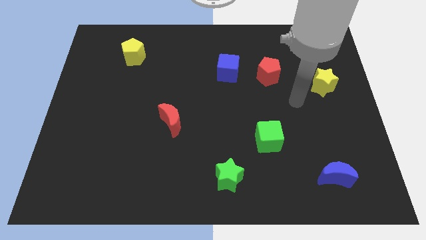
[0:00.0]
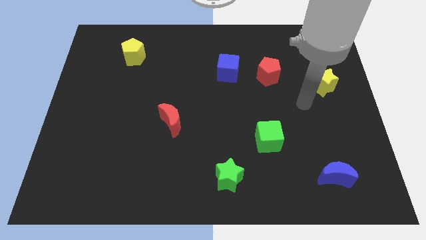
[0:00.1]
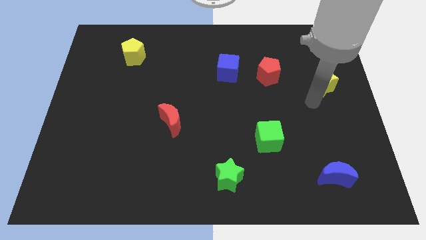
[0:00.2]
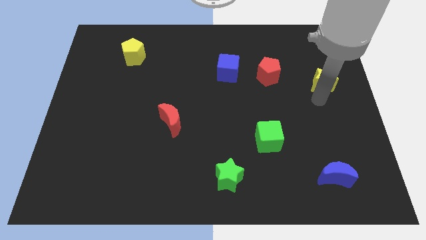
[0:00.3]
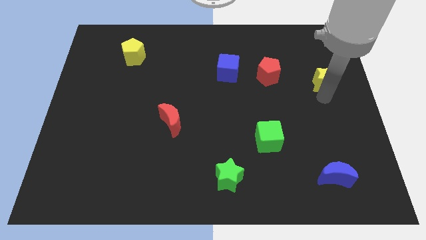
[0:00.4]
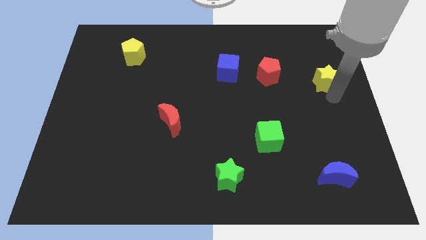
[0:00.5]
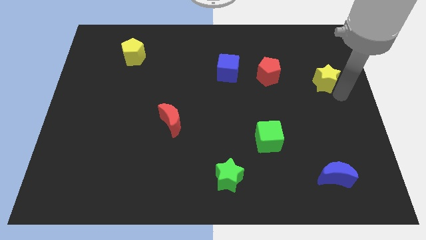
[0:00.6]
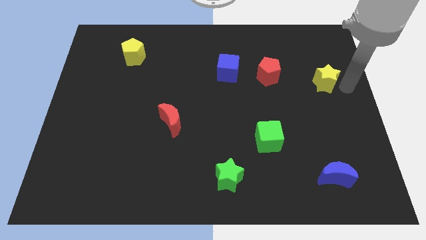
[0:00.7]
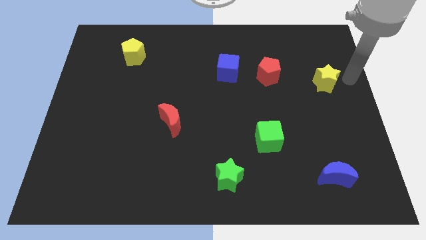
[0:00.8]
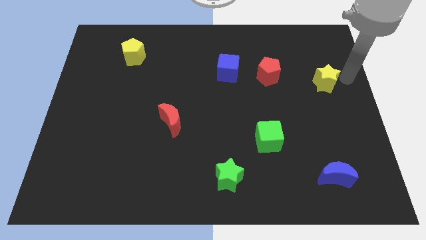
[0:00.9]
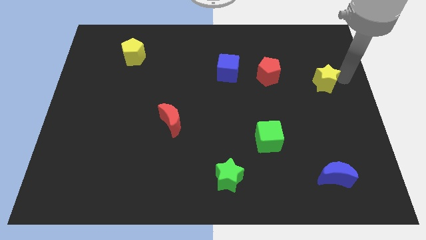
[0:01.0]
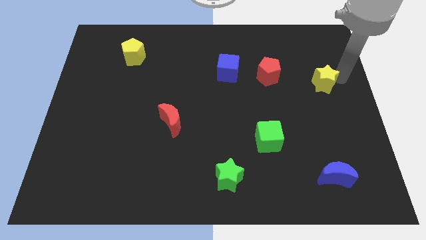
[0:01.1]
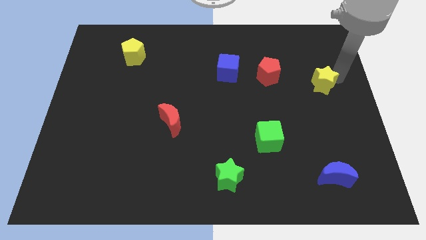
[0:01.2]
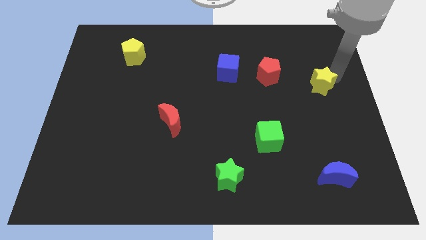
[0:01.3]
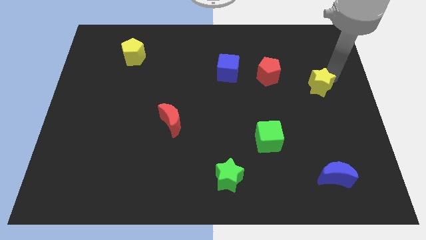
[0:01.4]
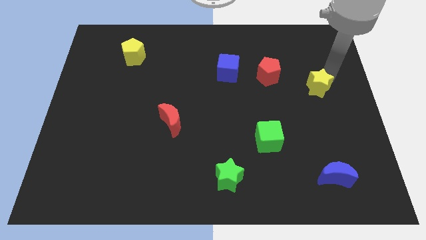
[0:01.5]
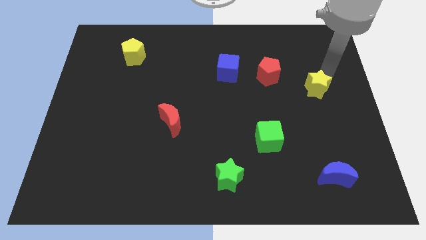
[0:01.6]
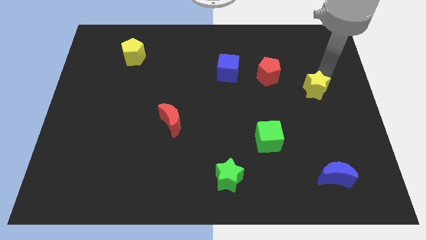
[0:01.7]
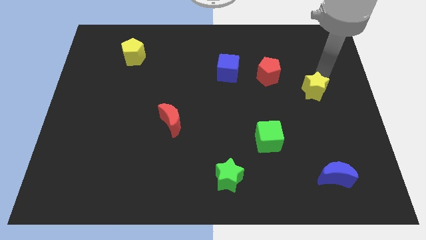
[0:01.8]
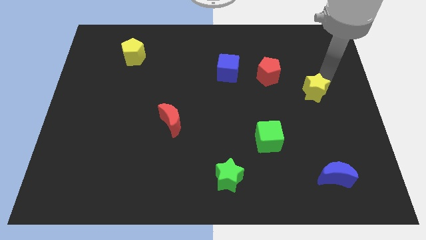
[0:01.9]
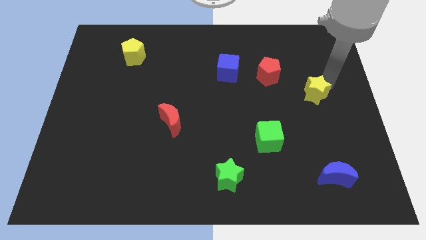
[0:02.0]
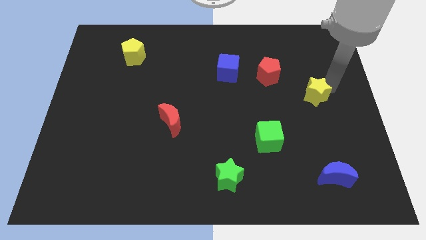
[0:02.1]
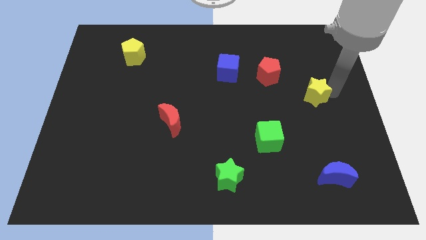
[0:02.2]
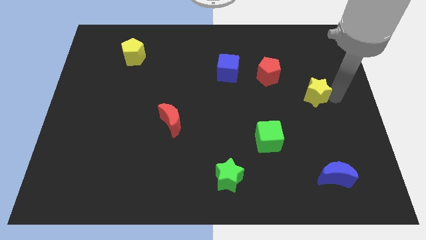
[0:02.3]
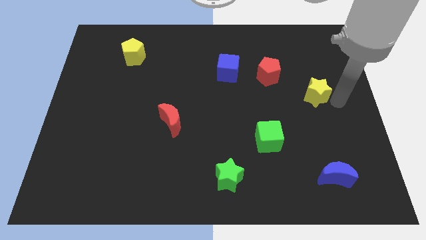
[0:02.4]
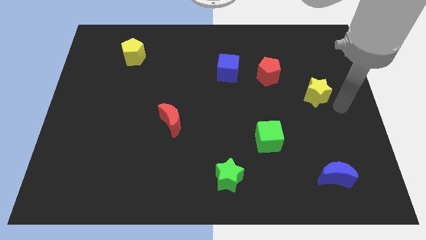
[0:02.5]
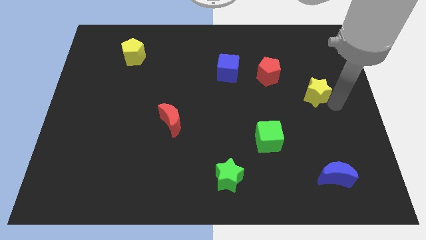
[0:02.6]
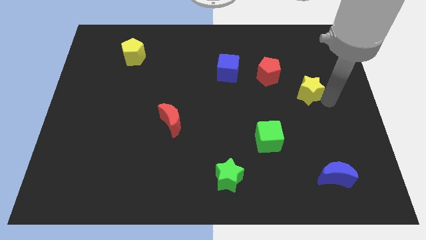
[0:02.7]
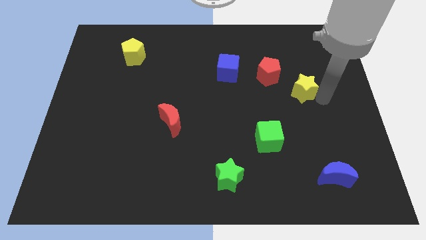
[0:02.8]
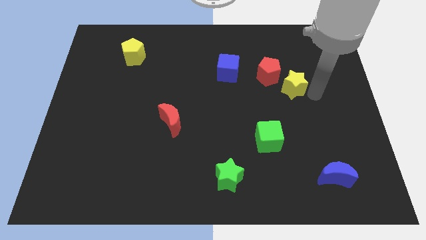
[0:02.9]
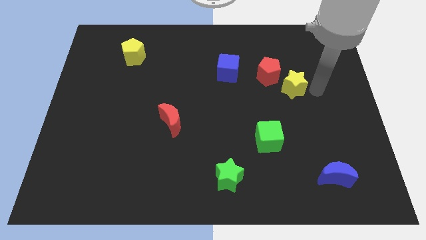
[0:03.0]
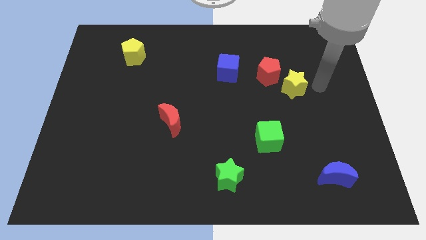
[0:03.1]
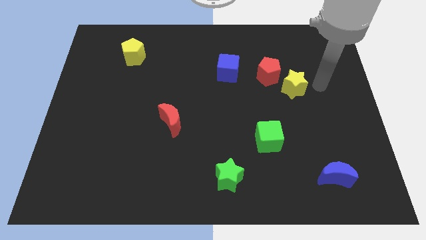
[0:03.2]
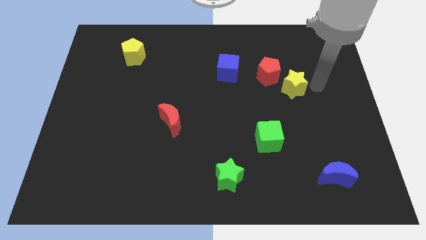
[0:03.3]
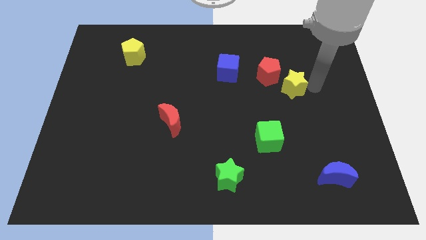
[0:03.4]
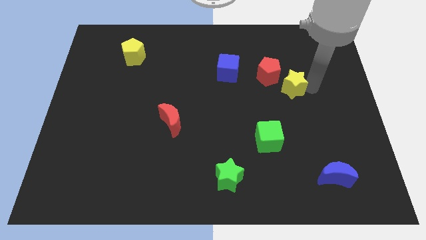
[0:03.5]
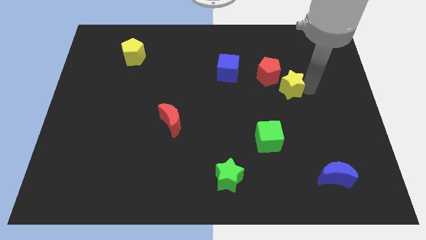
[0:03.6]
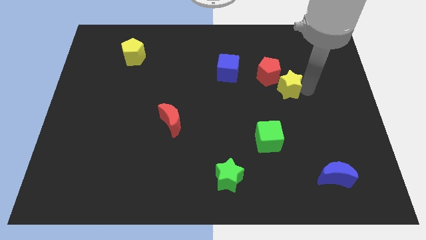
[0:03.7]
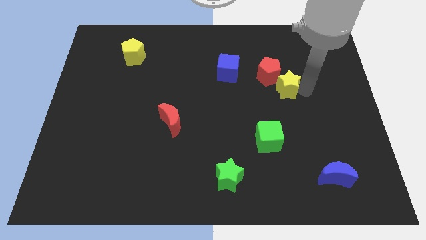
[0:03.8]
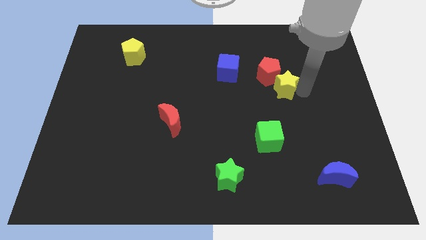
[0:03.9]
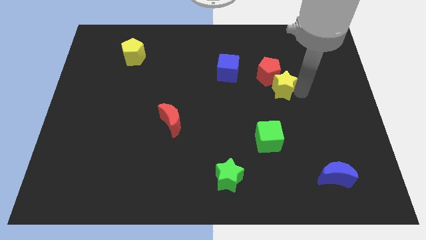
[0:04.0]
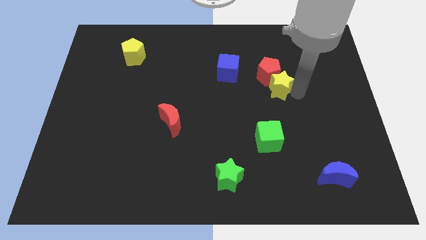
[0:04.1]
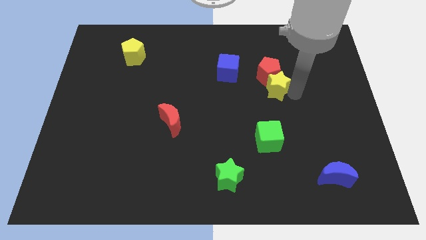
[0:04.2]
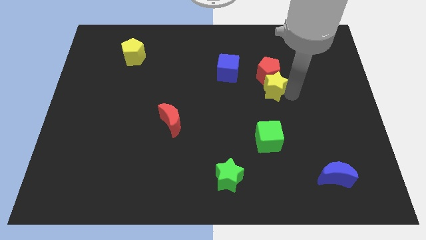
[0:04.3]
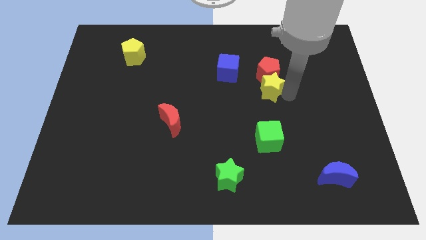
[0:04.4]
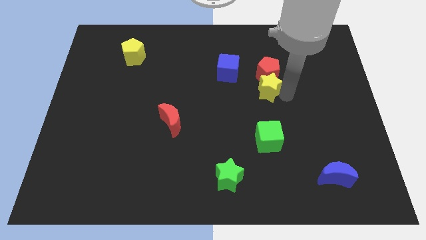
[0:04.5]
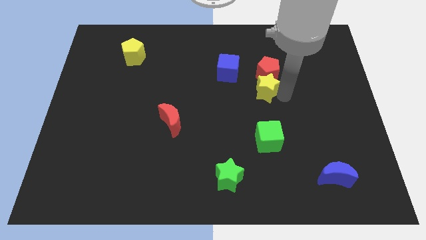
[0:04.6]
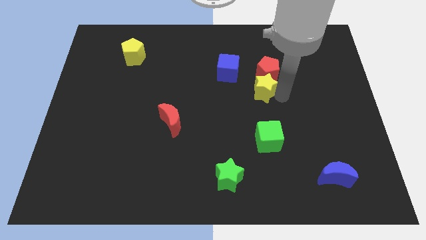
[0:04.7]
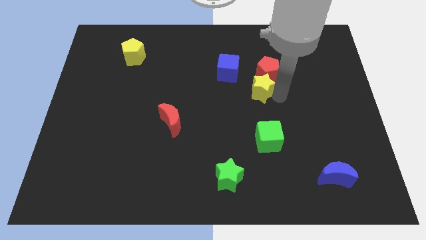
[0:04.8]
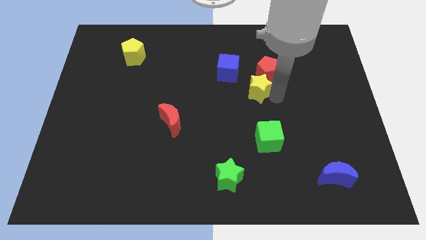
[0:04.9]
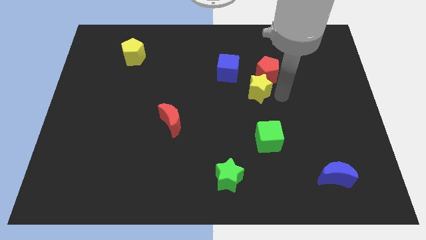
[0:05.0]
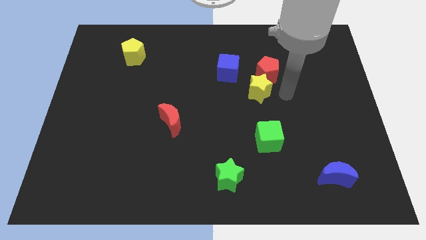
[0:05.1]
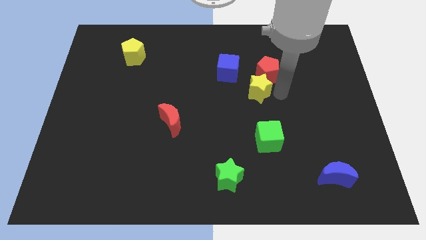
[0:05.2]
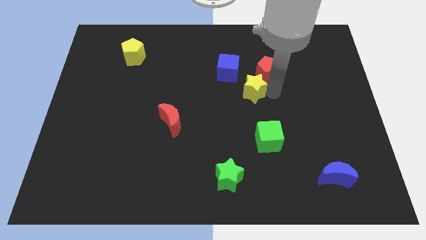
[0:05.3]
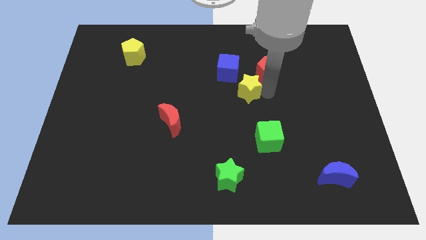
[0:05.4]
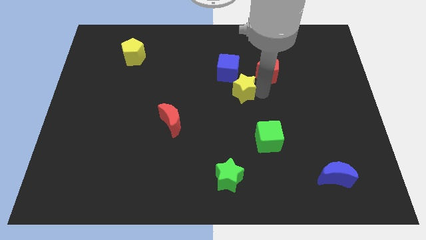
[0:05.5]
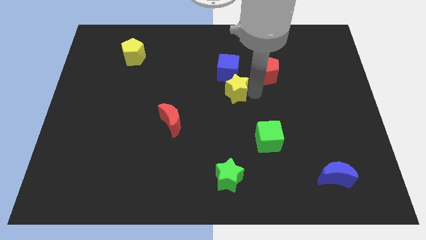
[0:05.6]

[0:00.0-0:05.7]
move the yellow star left

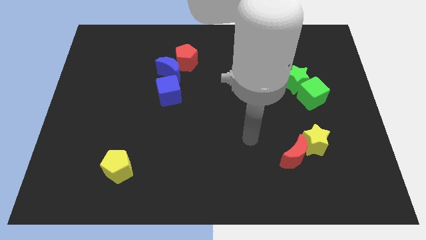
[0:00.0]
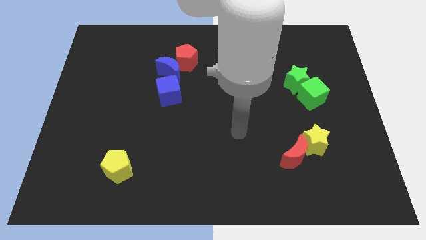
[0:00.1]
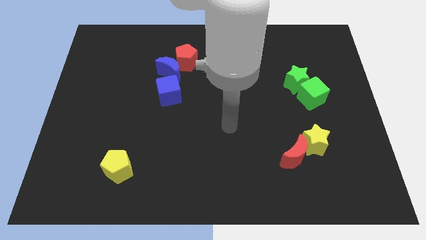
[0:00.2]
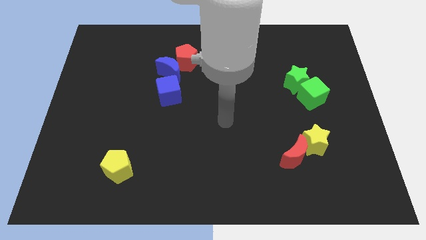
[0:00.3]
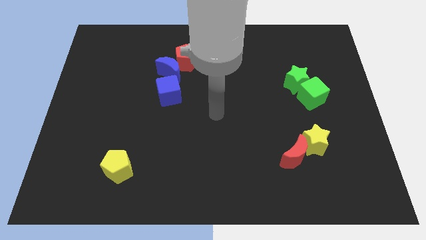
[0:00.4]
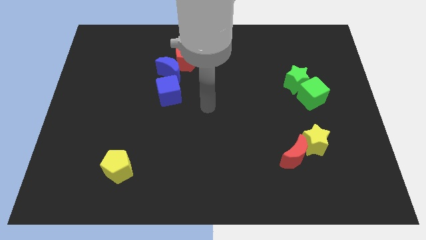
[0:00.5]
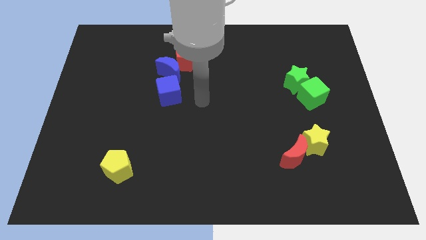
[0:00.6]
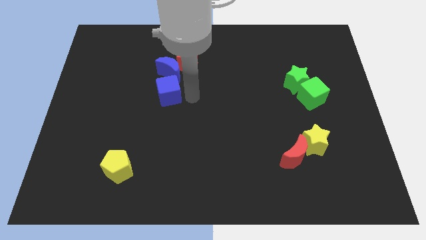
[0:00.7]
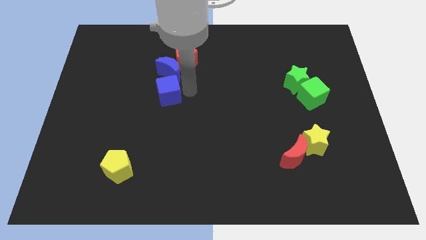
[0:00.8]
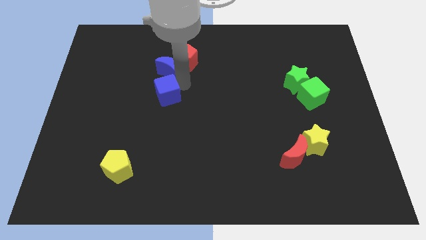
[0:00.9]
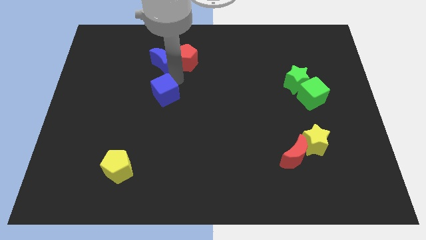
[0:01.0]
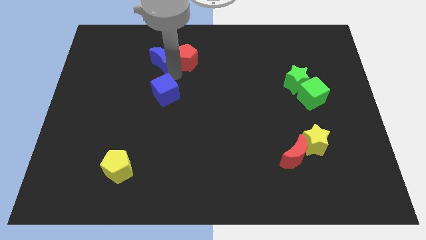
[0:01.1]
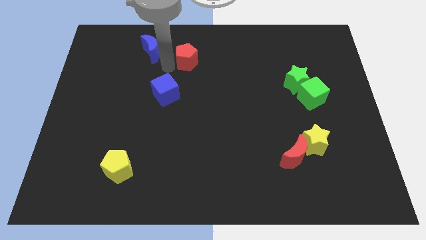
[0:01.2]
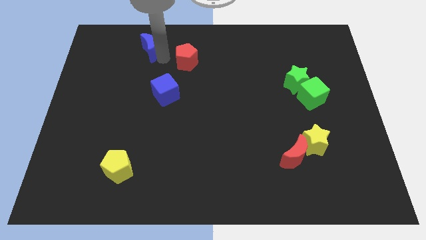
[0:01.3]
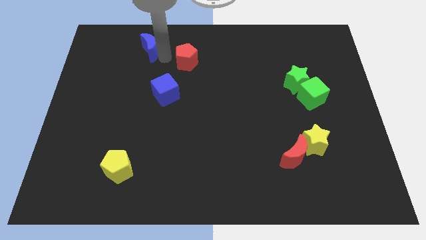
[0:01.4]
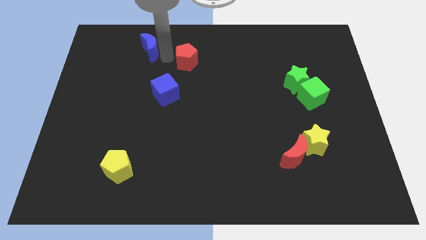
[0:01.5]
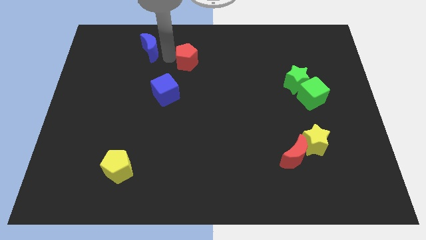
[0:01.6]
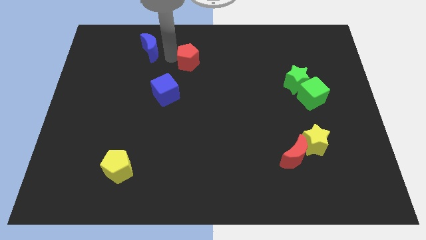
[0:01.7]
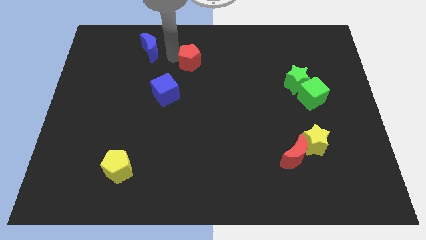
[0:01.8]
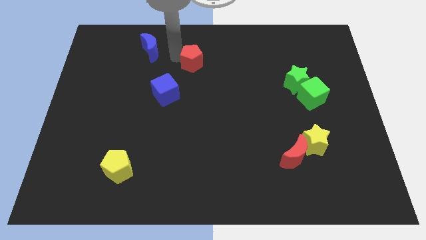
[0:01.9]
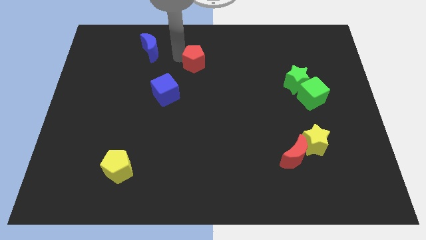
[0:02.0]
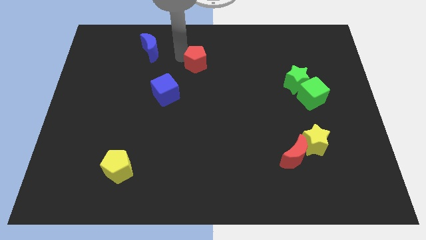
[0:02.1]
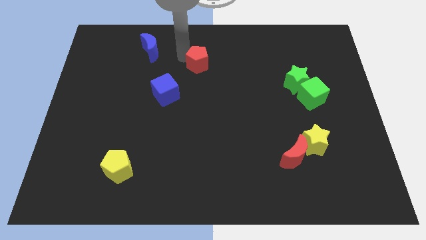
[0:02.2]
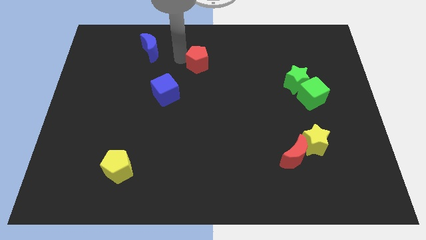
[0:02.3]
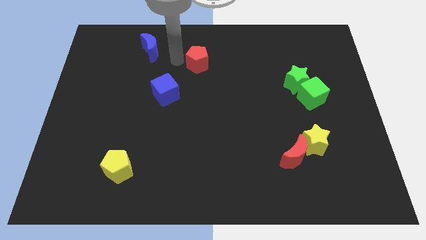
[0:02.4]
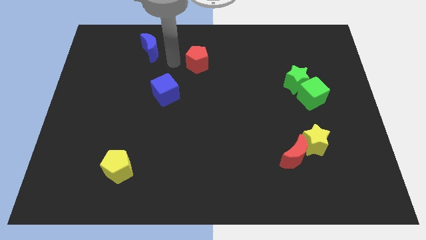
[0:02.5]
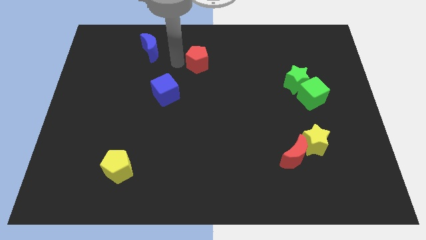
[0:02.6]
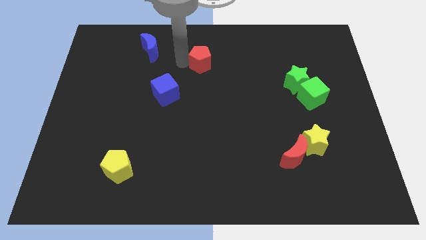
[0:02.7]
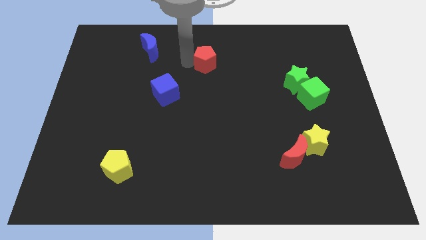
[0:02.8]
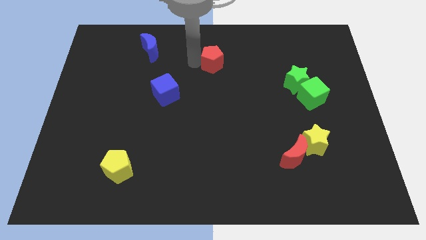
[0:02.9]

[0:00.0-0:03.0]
move the red pentagon right a little bit
